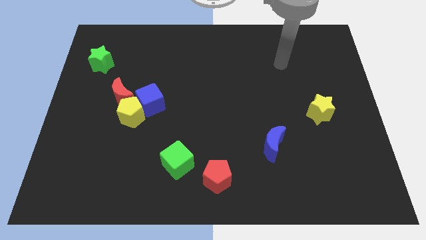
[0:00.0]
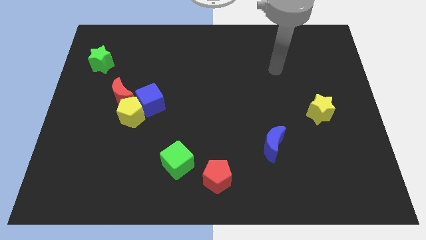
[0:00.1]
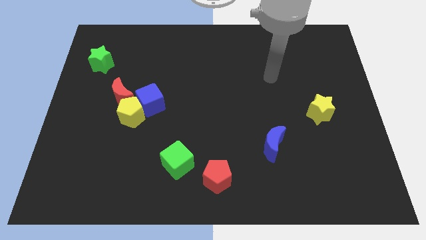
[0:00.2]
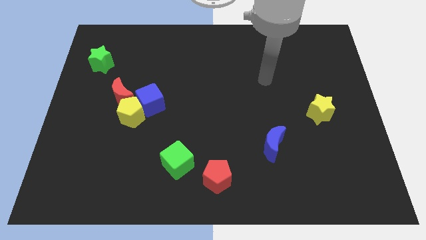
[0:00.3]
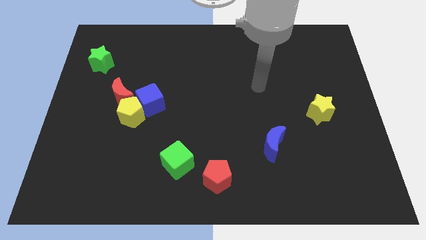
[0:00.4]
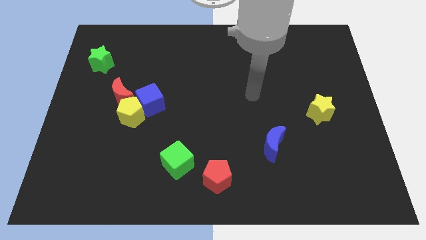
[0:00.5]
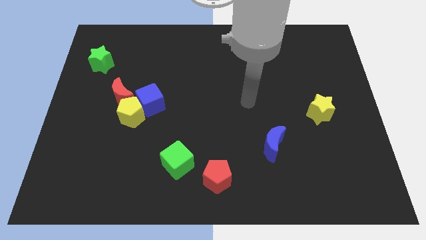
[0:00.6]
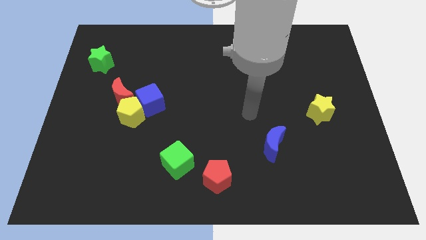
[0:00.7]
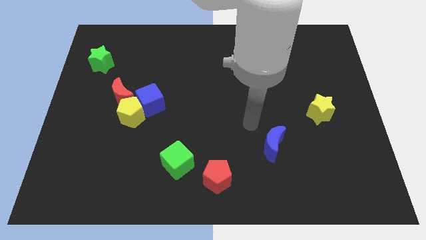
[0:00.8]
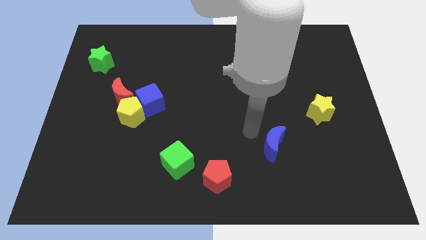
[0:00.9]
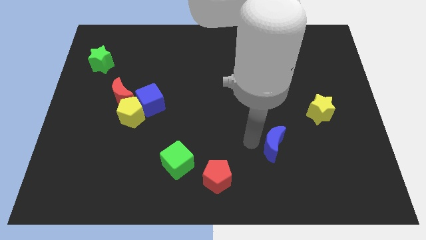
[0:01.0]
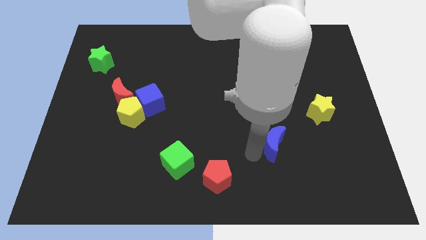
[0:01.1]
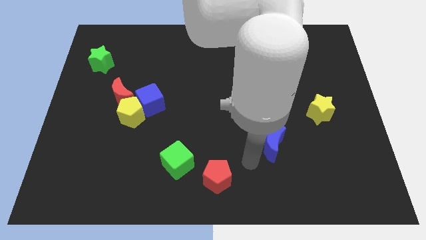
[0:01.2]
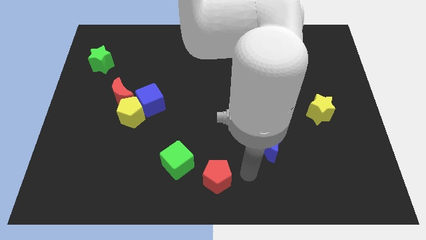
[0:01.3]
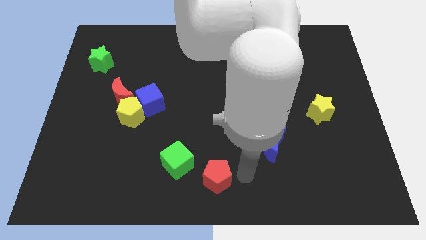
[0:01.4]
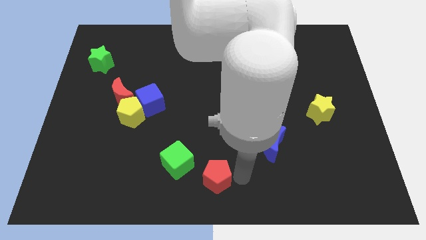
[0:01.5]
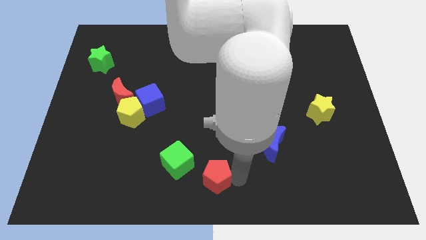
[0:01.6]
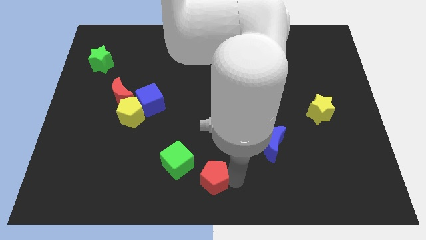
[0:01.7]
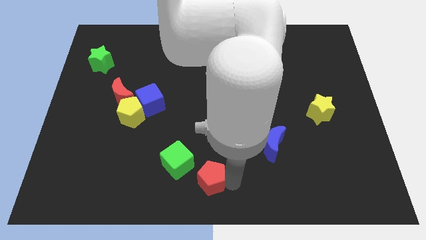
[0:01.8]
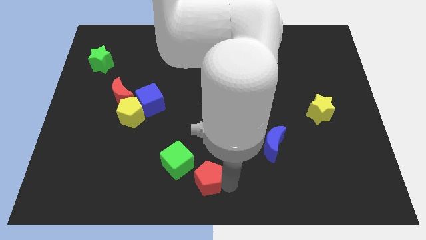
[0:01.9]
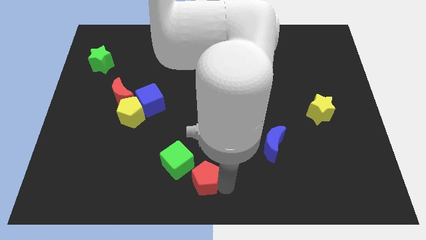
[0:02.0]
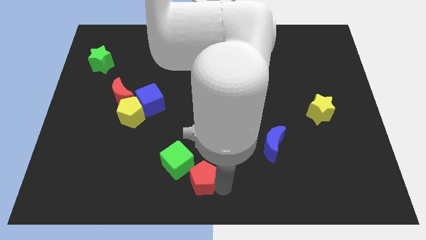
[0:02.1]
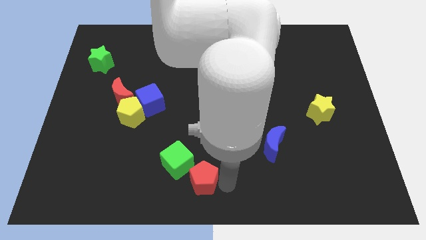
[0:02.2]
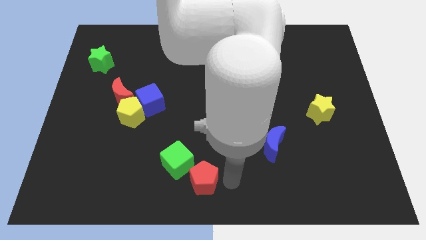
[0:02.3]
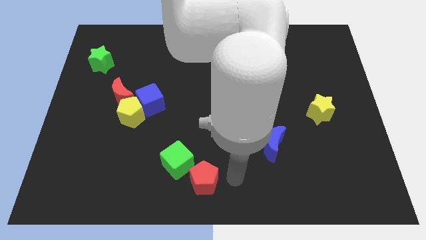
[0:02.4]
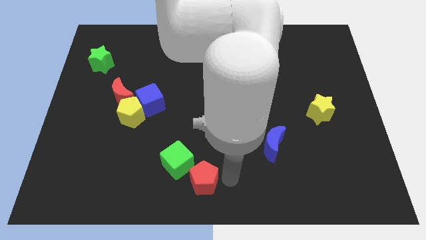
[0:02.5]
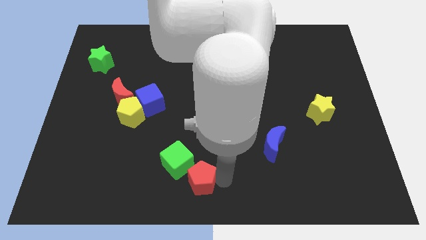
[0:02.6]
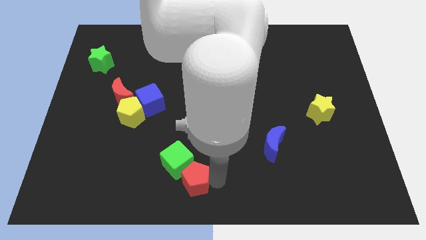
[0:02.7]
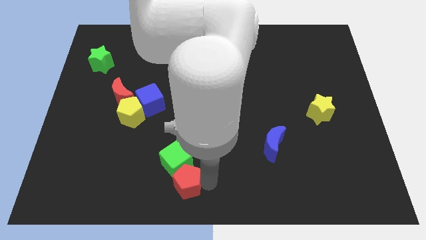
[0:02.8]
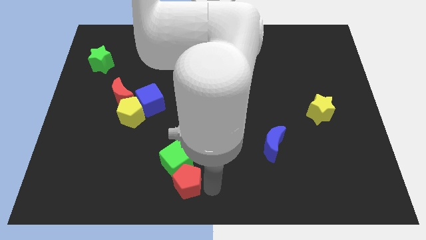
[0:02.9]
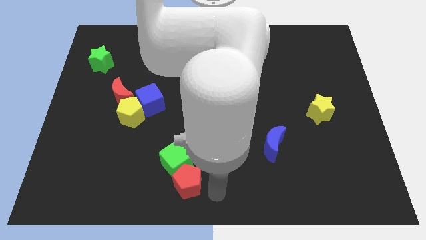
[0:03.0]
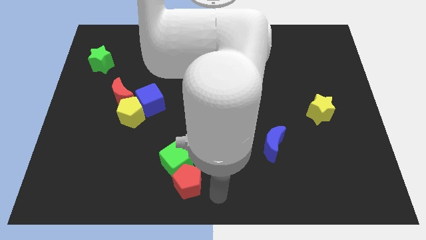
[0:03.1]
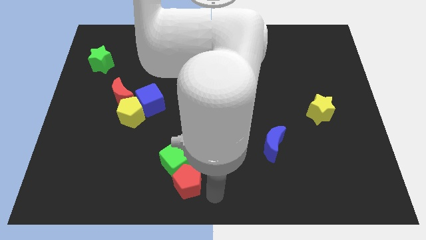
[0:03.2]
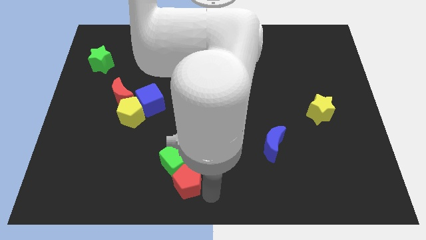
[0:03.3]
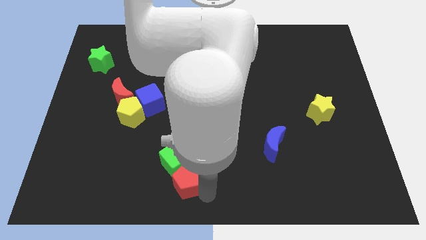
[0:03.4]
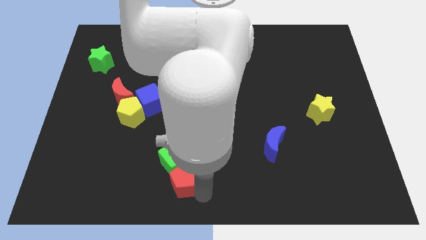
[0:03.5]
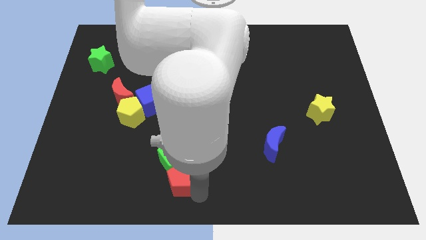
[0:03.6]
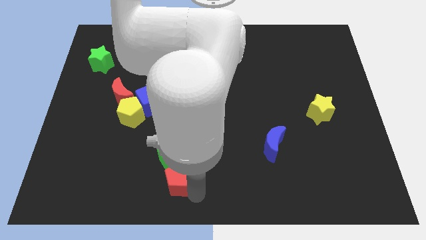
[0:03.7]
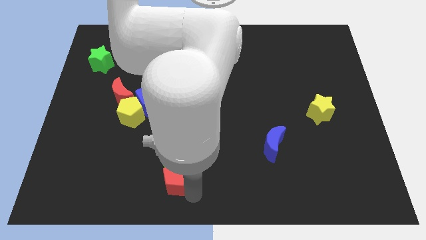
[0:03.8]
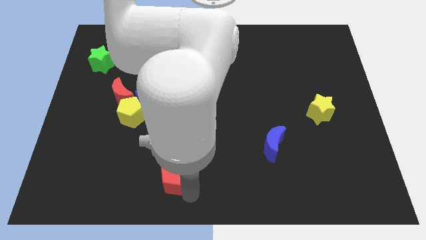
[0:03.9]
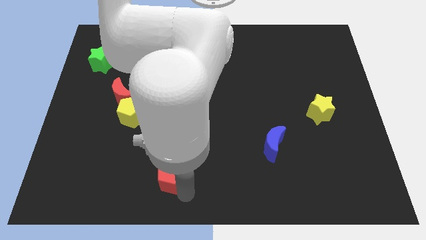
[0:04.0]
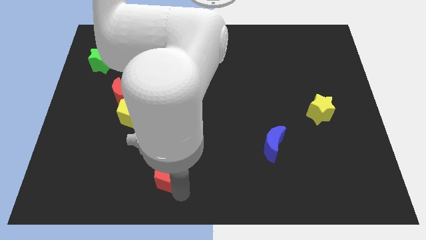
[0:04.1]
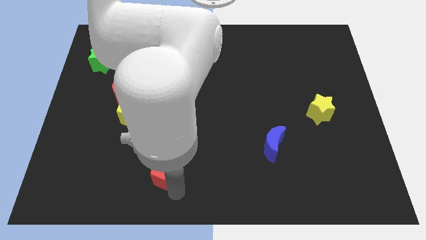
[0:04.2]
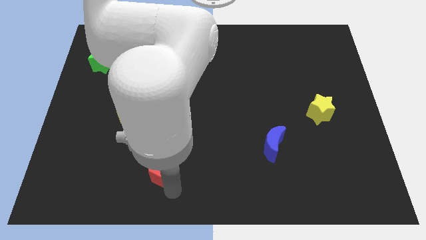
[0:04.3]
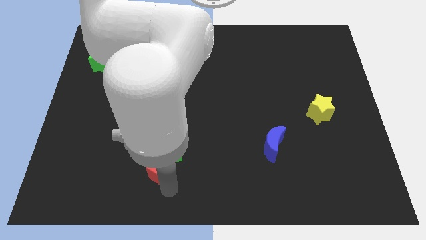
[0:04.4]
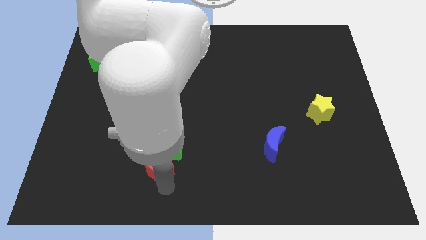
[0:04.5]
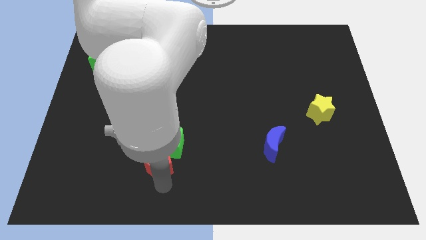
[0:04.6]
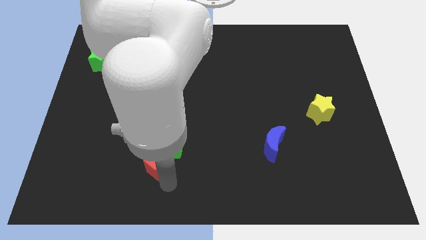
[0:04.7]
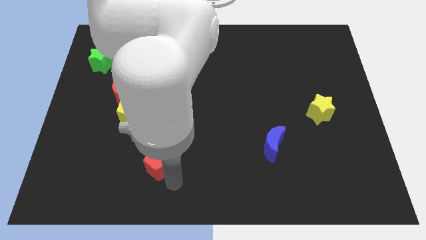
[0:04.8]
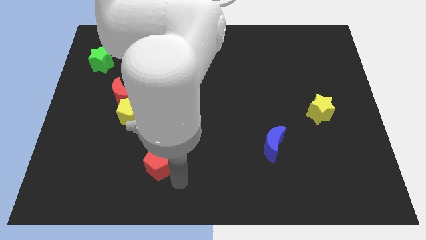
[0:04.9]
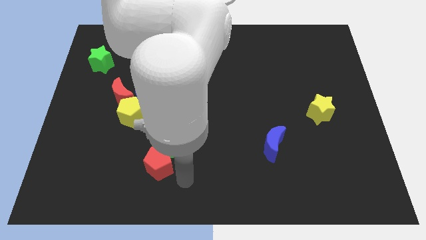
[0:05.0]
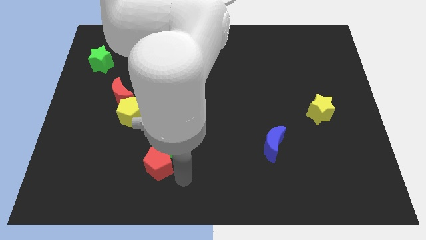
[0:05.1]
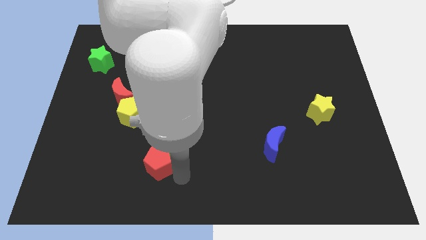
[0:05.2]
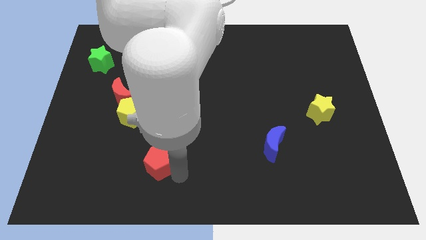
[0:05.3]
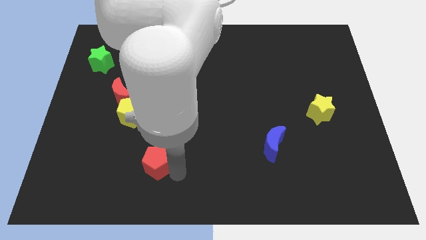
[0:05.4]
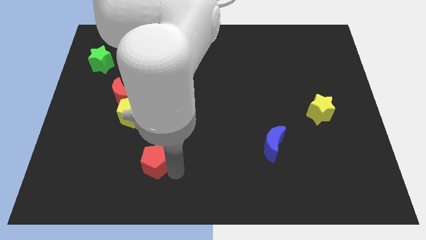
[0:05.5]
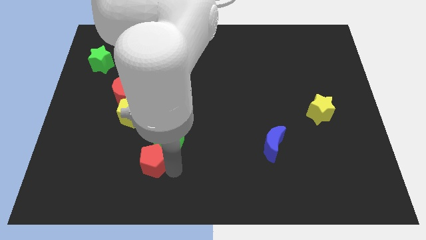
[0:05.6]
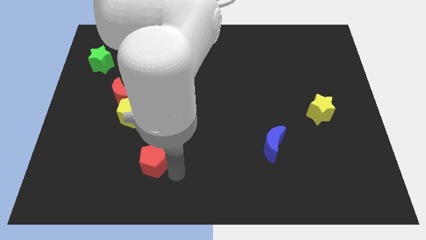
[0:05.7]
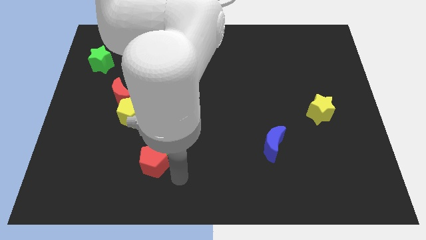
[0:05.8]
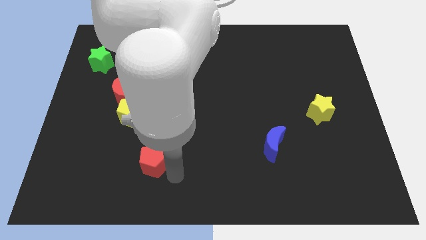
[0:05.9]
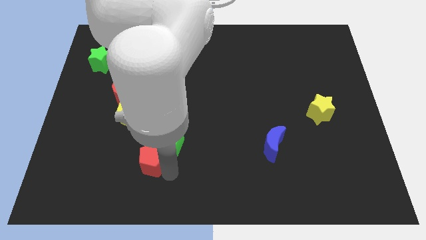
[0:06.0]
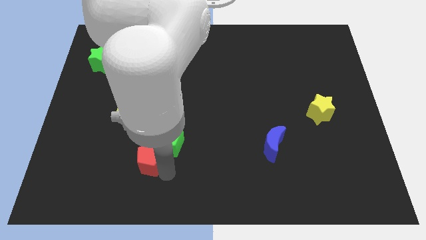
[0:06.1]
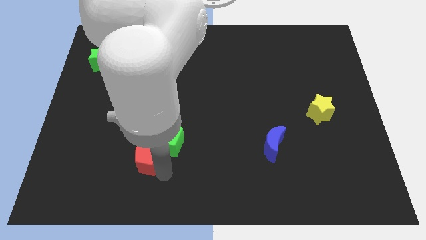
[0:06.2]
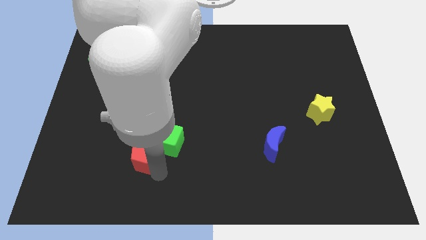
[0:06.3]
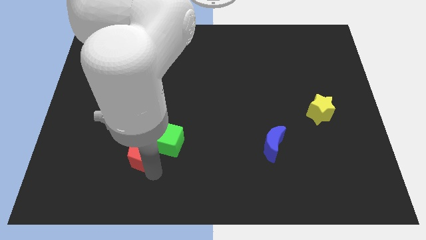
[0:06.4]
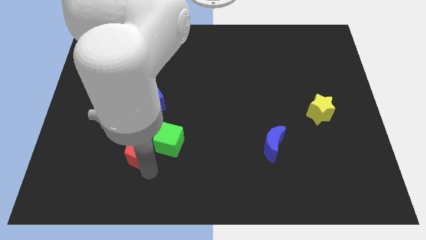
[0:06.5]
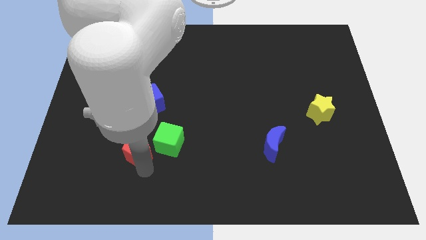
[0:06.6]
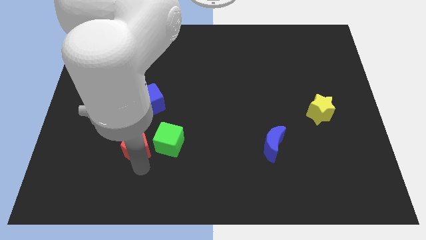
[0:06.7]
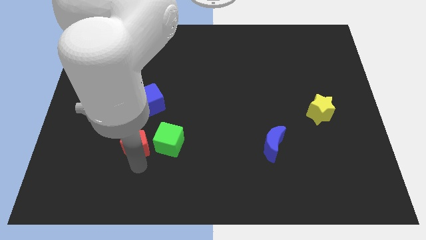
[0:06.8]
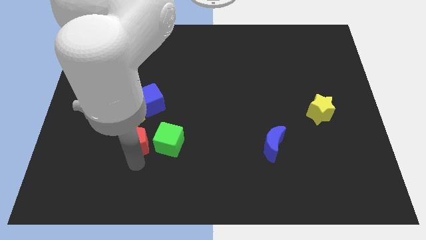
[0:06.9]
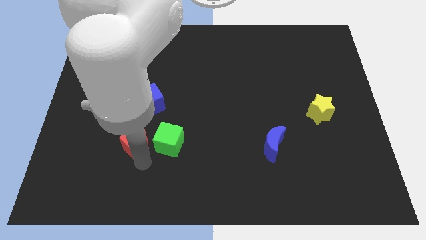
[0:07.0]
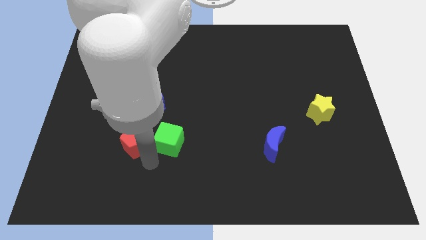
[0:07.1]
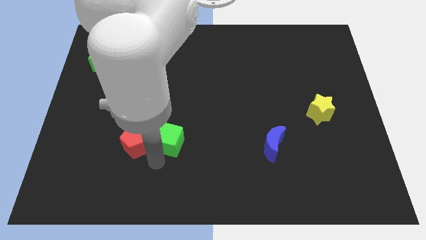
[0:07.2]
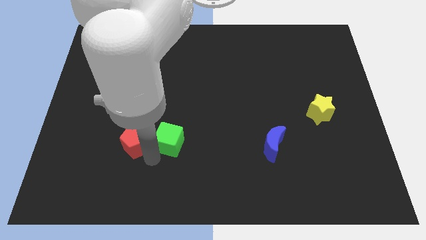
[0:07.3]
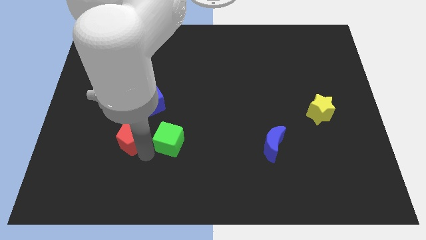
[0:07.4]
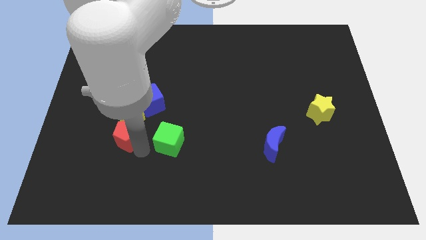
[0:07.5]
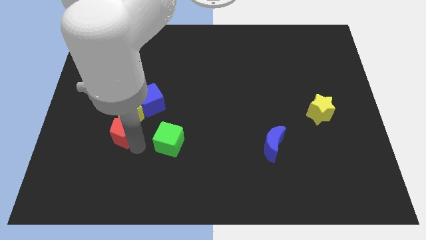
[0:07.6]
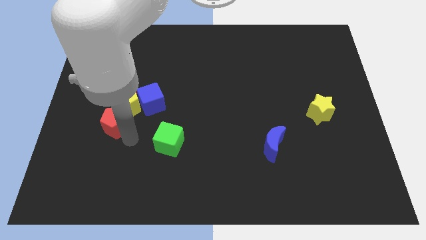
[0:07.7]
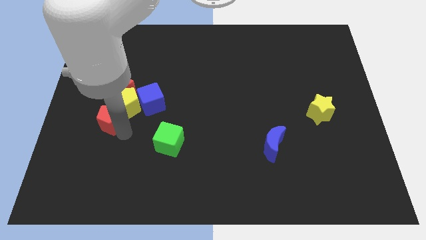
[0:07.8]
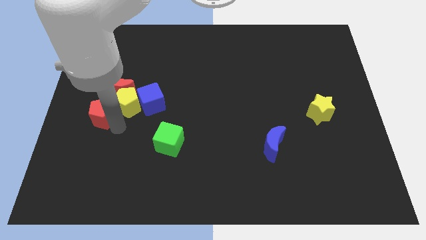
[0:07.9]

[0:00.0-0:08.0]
slide the red pentagon left of the yellow pentagon
